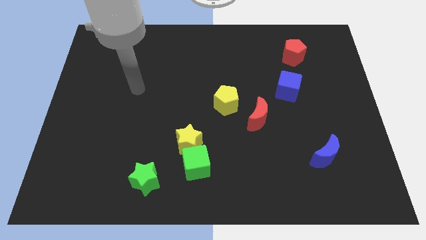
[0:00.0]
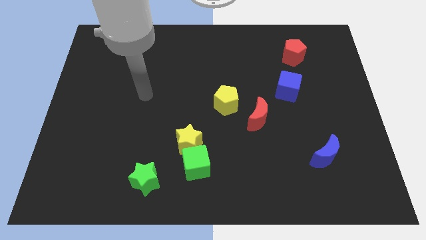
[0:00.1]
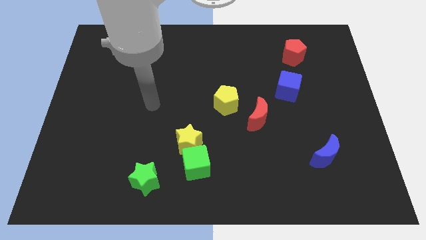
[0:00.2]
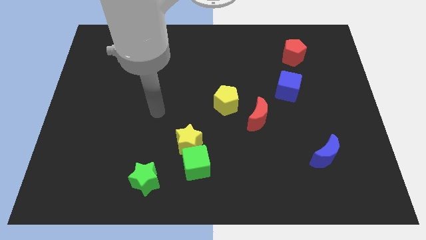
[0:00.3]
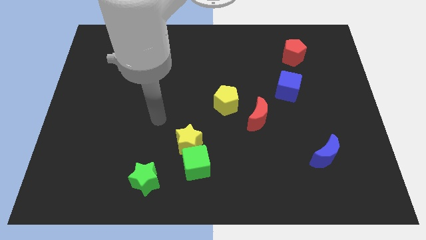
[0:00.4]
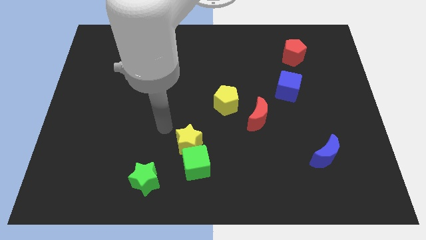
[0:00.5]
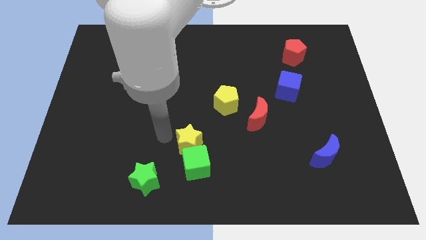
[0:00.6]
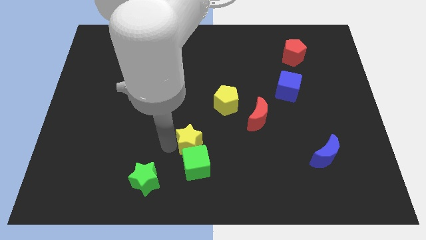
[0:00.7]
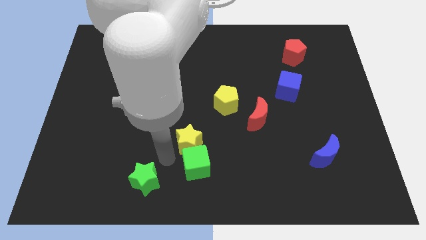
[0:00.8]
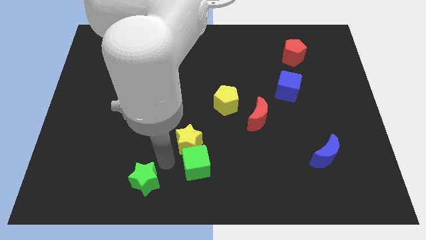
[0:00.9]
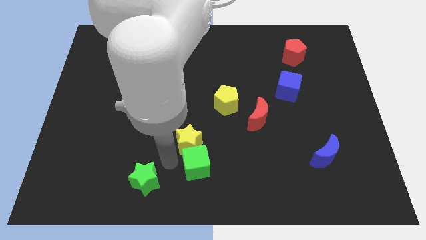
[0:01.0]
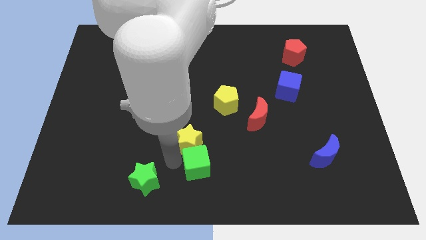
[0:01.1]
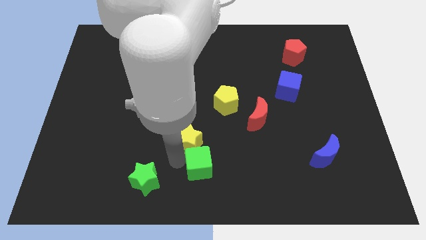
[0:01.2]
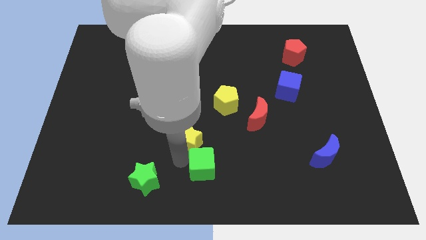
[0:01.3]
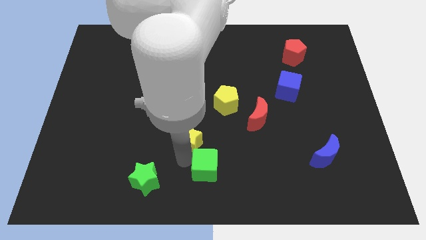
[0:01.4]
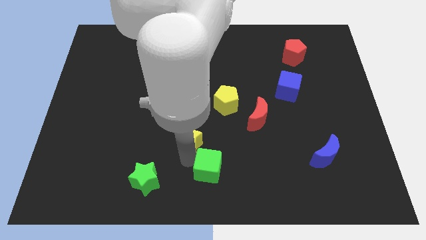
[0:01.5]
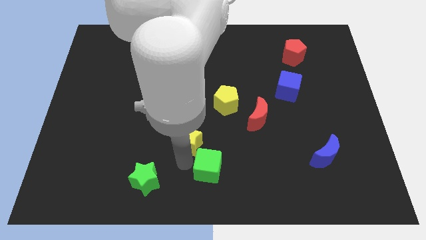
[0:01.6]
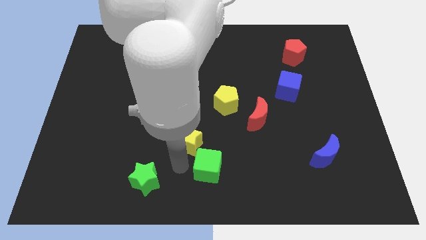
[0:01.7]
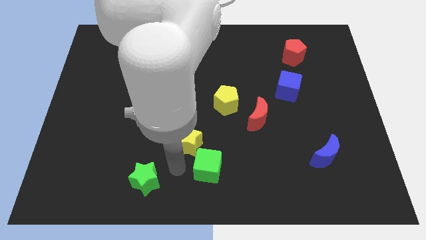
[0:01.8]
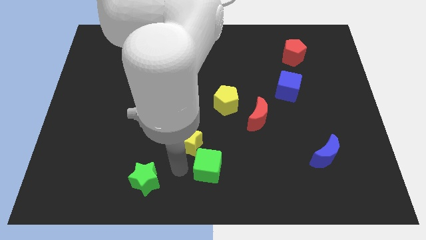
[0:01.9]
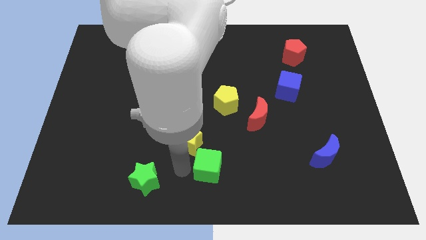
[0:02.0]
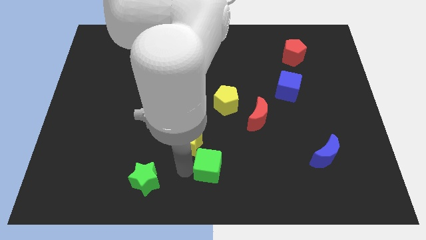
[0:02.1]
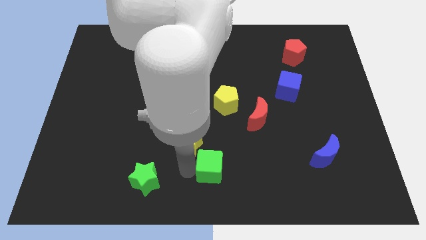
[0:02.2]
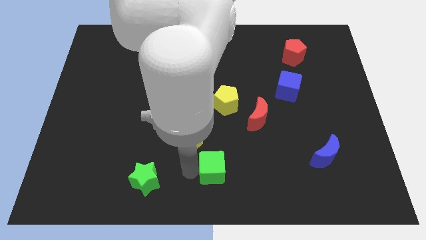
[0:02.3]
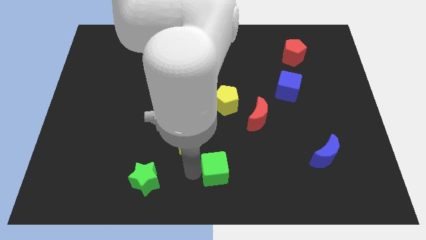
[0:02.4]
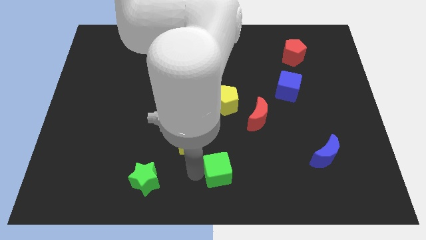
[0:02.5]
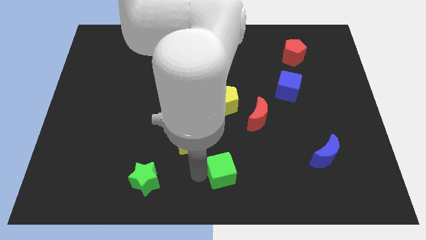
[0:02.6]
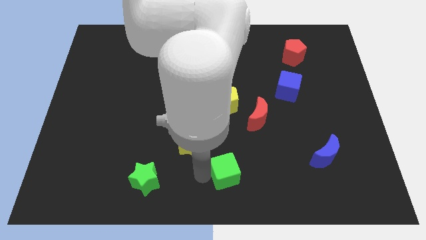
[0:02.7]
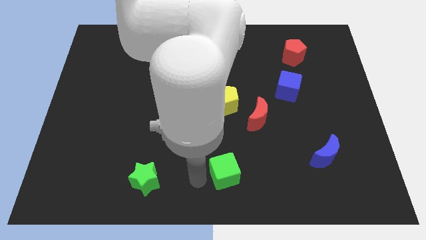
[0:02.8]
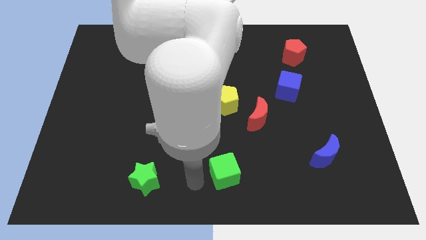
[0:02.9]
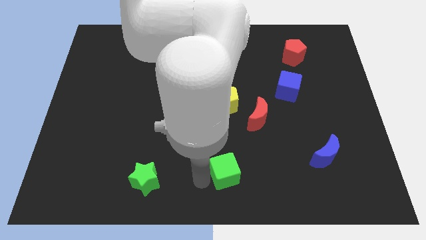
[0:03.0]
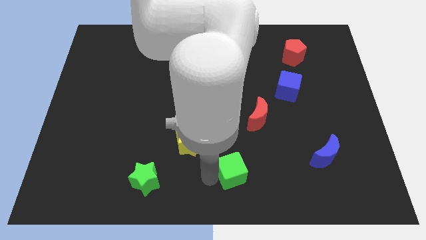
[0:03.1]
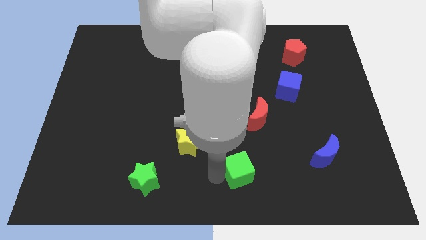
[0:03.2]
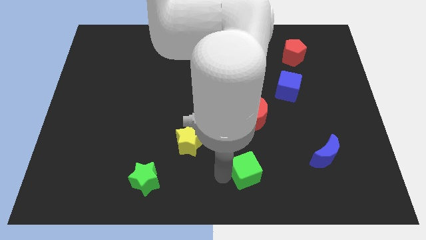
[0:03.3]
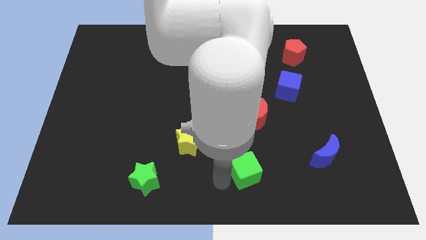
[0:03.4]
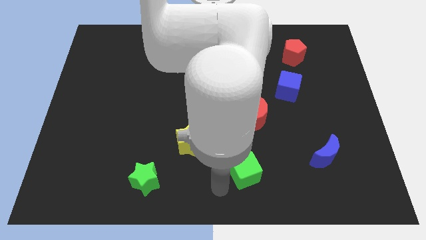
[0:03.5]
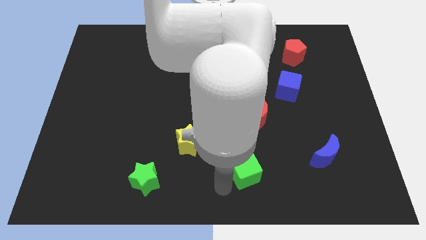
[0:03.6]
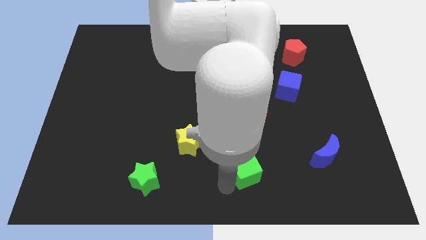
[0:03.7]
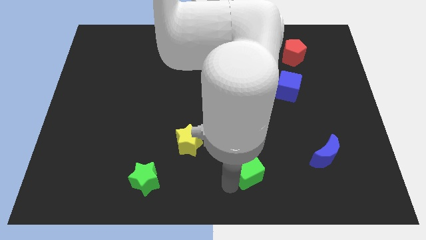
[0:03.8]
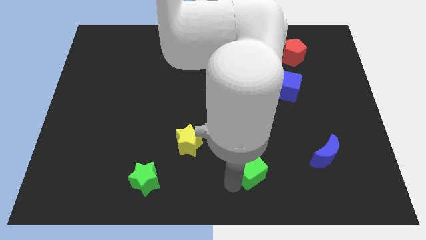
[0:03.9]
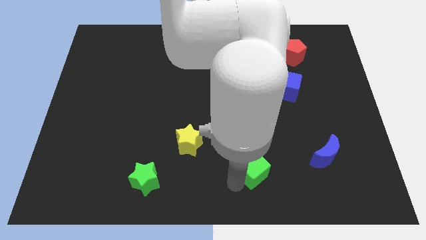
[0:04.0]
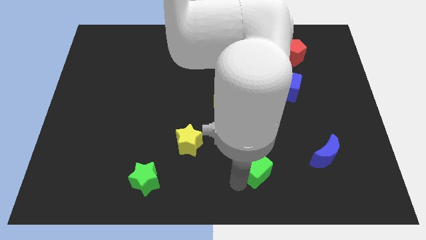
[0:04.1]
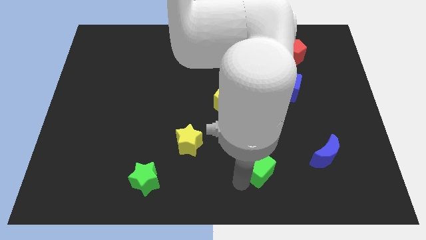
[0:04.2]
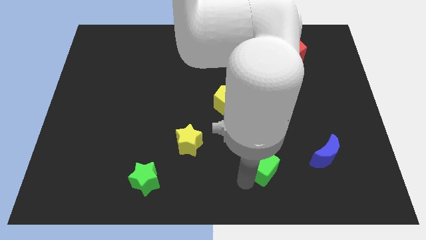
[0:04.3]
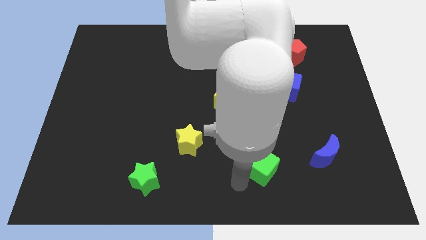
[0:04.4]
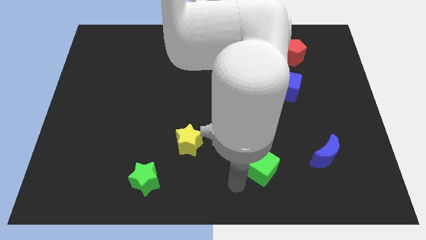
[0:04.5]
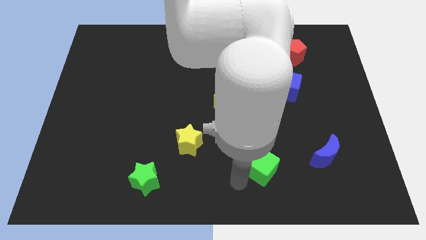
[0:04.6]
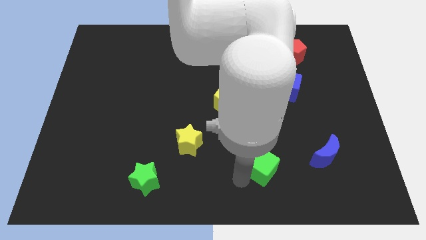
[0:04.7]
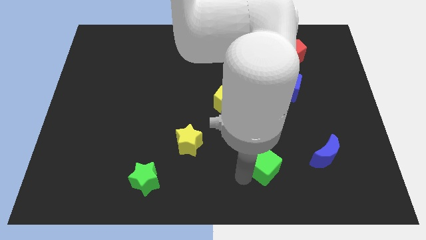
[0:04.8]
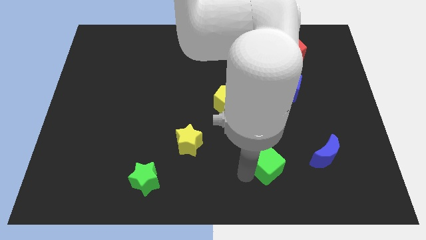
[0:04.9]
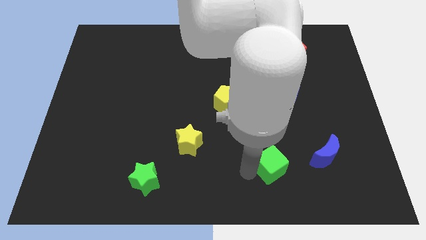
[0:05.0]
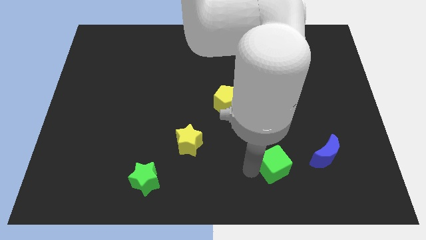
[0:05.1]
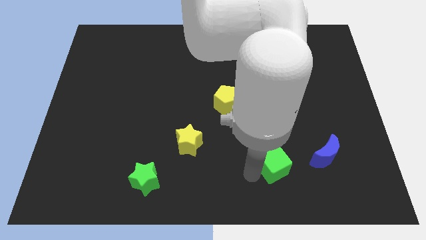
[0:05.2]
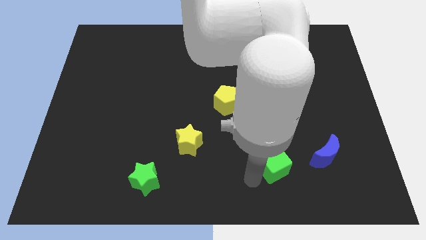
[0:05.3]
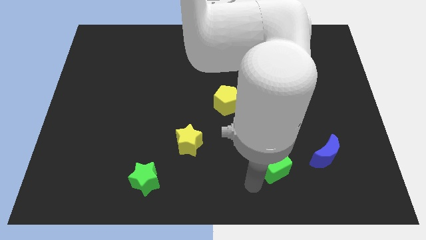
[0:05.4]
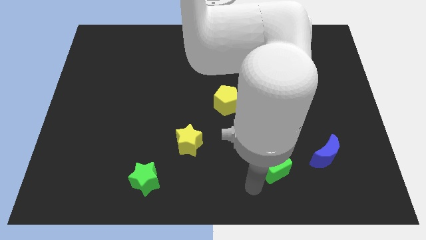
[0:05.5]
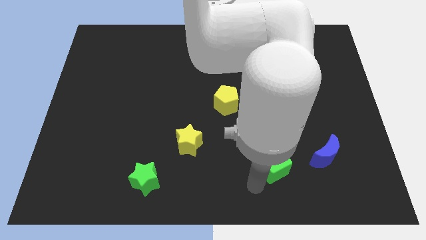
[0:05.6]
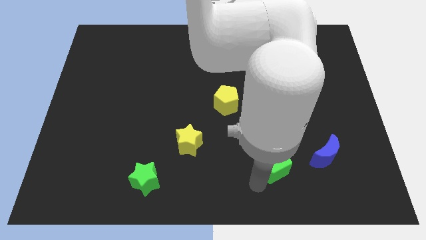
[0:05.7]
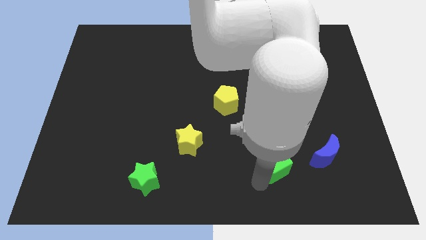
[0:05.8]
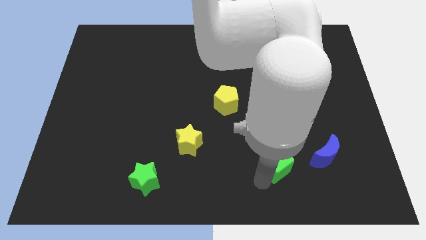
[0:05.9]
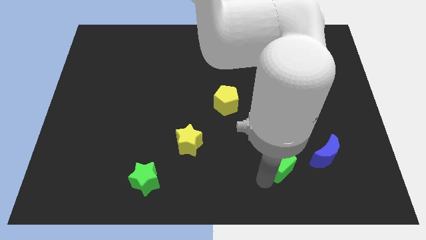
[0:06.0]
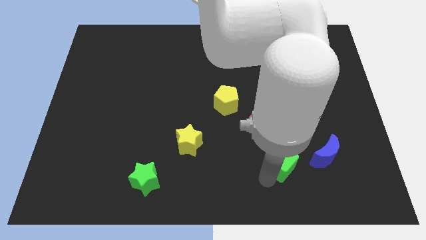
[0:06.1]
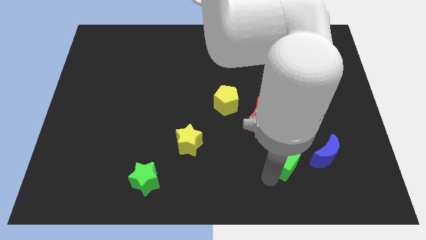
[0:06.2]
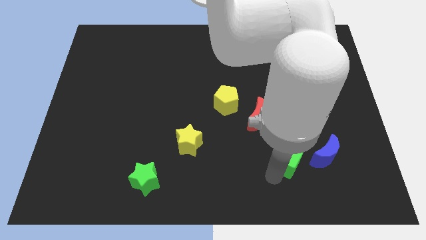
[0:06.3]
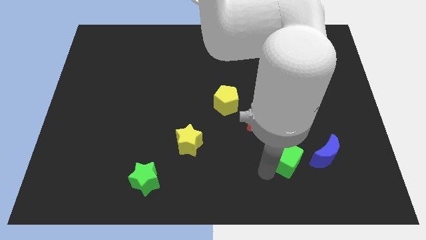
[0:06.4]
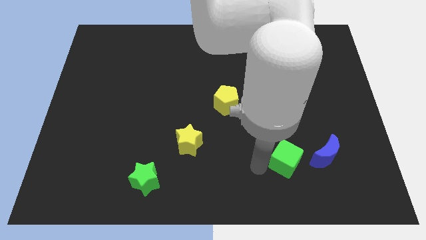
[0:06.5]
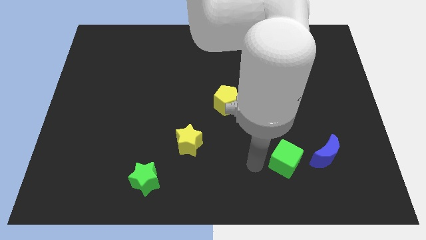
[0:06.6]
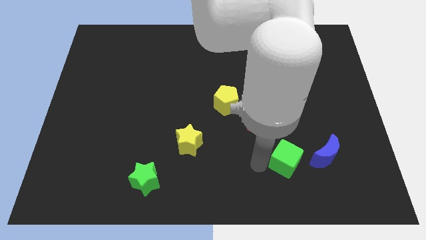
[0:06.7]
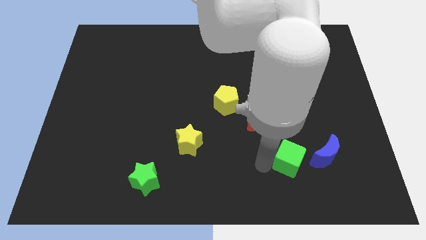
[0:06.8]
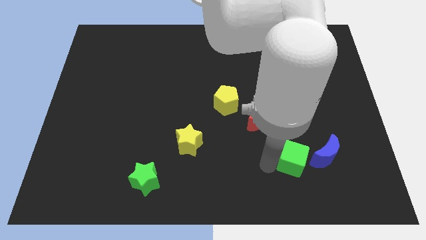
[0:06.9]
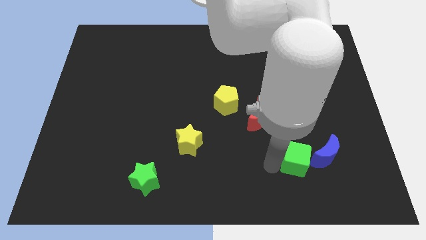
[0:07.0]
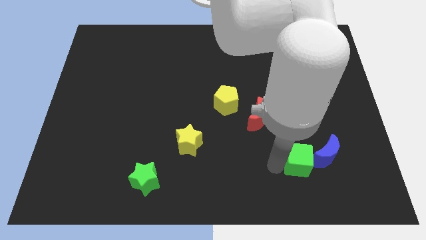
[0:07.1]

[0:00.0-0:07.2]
slide the green cube towards the blue moon
